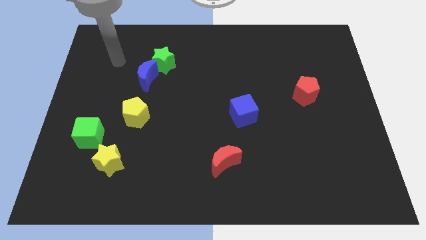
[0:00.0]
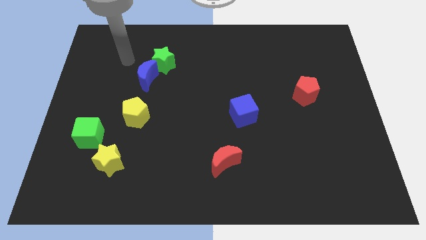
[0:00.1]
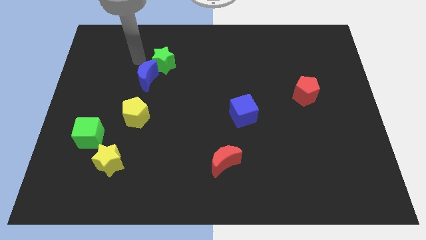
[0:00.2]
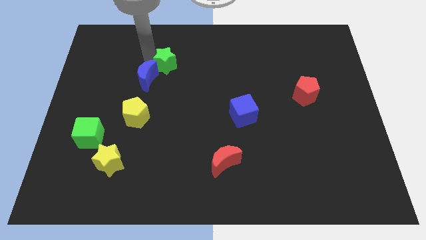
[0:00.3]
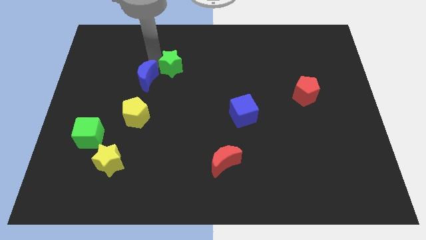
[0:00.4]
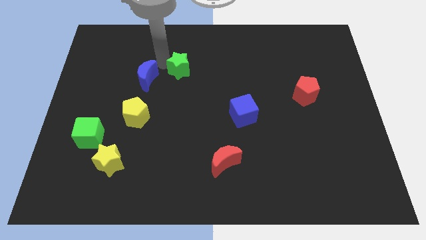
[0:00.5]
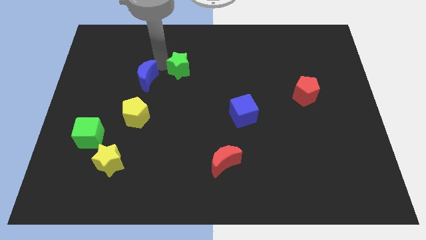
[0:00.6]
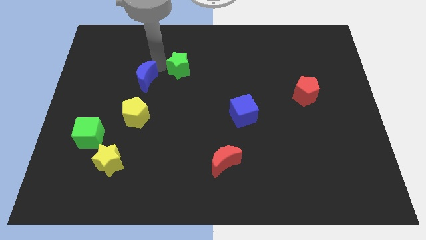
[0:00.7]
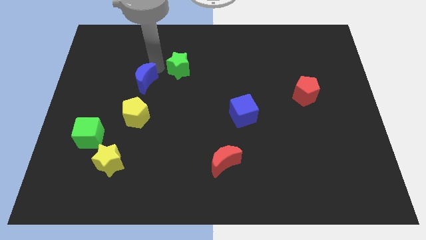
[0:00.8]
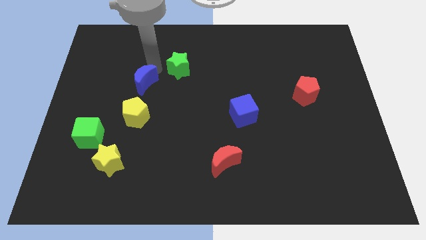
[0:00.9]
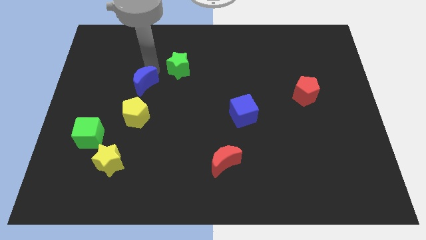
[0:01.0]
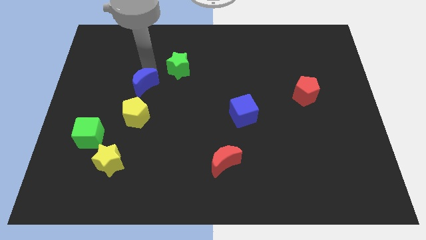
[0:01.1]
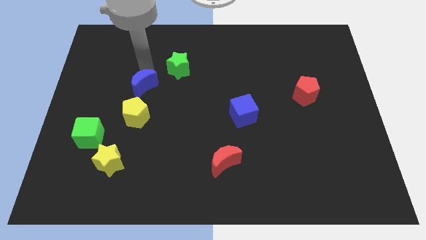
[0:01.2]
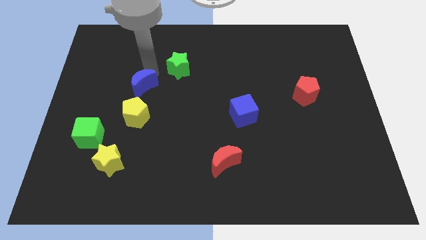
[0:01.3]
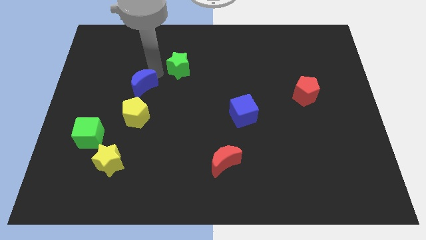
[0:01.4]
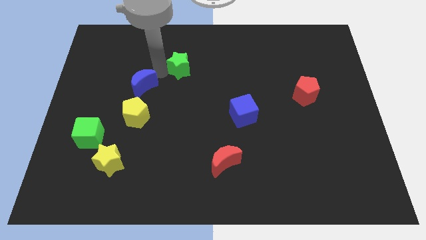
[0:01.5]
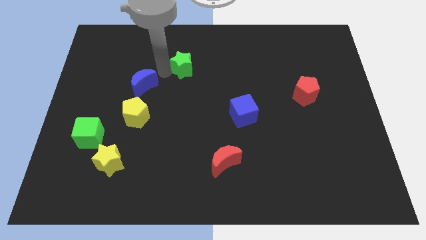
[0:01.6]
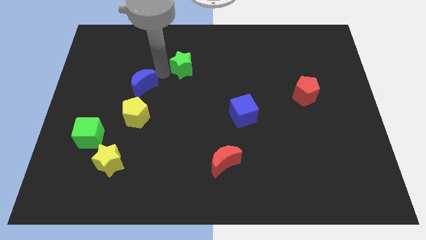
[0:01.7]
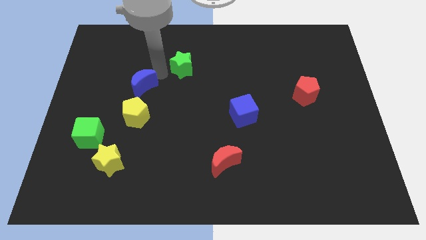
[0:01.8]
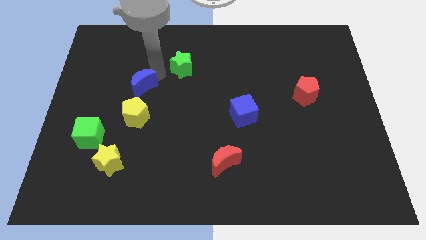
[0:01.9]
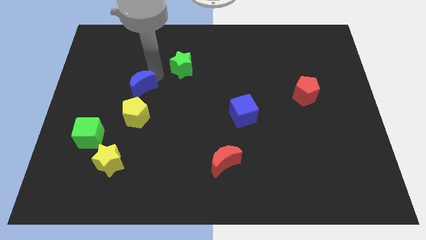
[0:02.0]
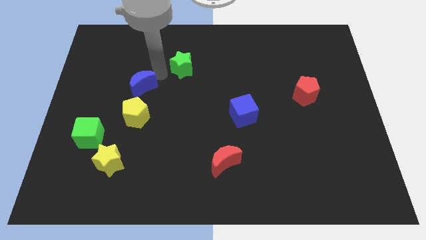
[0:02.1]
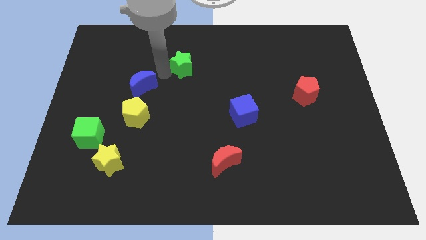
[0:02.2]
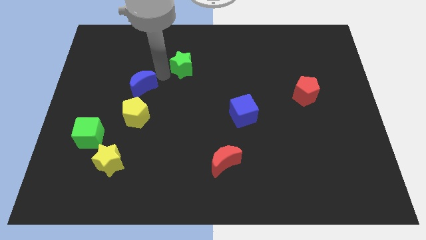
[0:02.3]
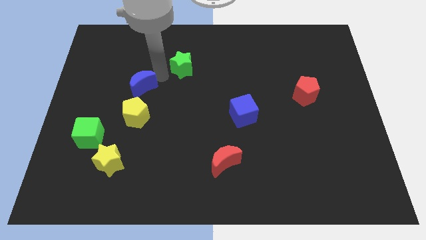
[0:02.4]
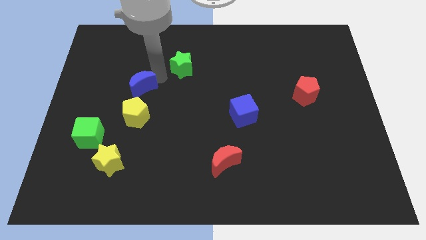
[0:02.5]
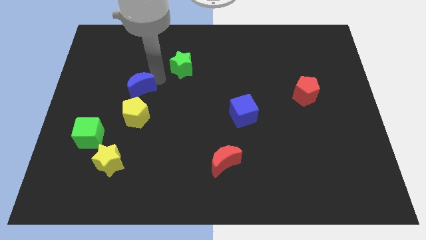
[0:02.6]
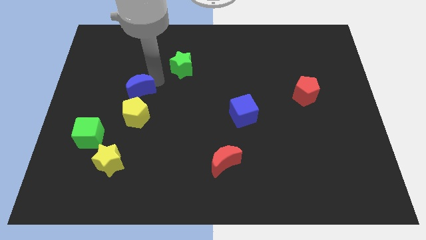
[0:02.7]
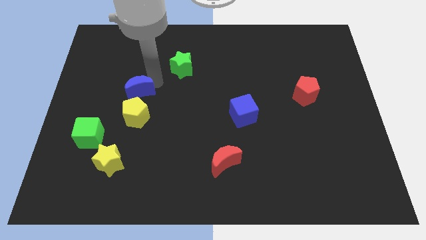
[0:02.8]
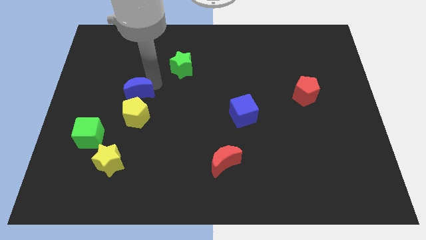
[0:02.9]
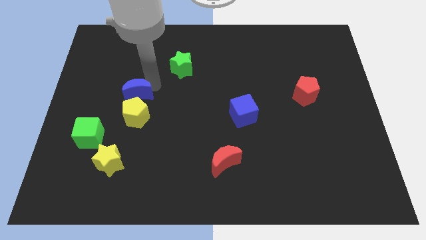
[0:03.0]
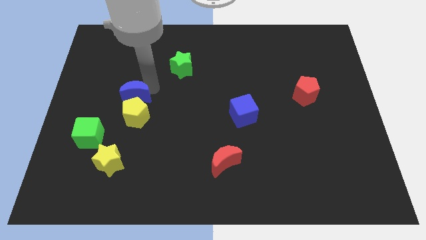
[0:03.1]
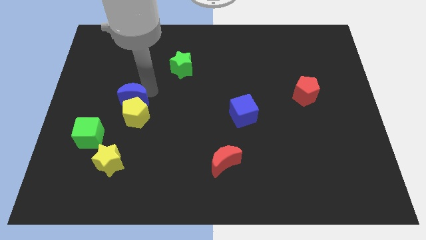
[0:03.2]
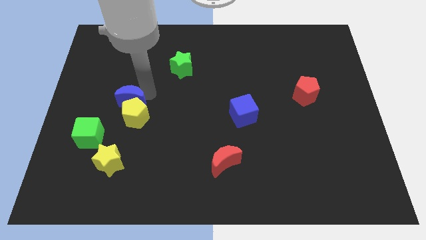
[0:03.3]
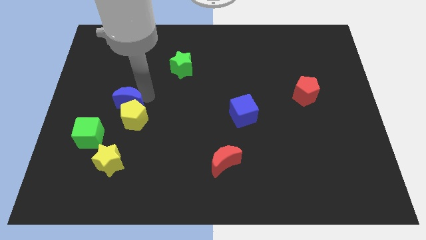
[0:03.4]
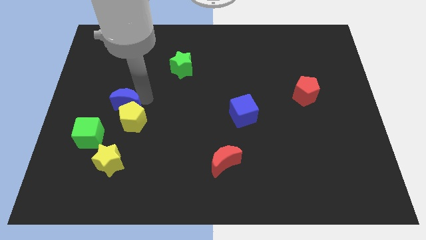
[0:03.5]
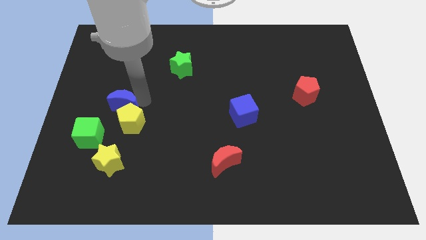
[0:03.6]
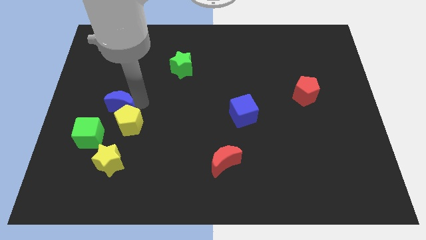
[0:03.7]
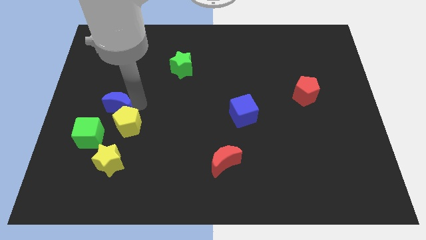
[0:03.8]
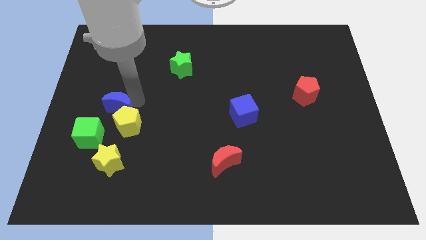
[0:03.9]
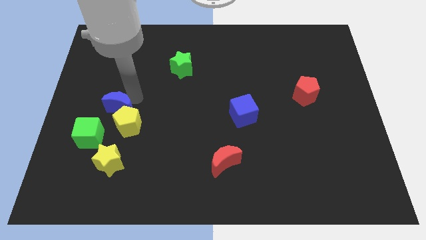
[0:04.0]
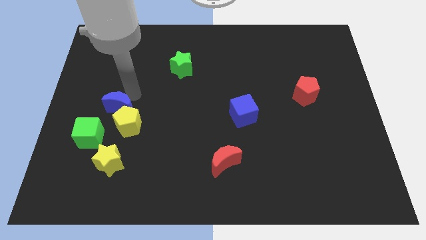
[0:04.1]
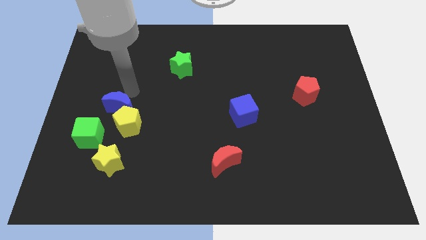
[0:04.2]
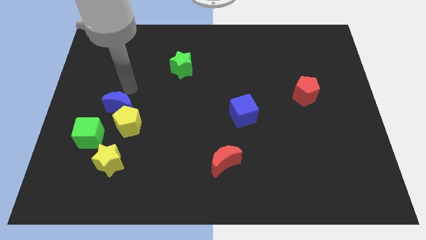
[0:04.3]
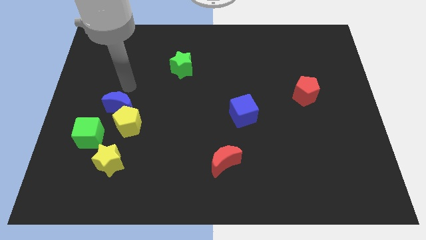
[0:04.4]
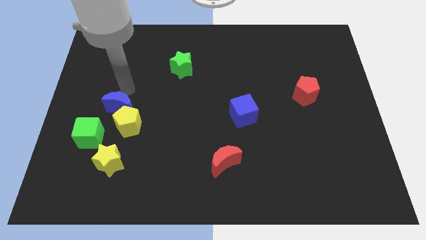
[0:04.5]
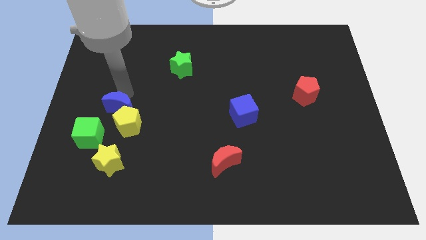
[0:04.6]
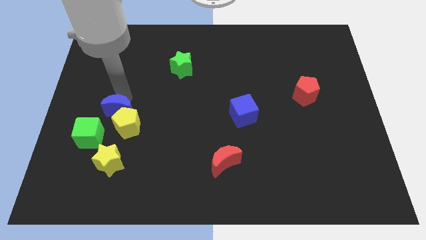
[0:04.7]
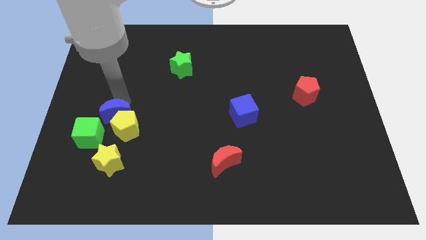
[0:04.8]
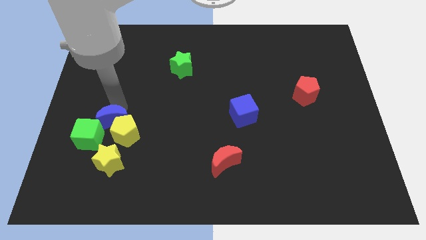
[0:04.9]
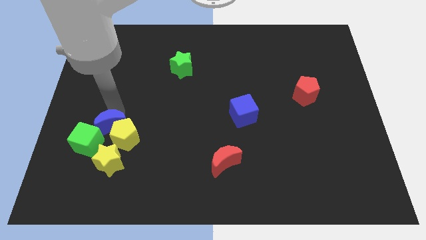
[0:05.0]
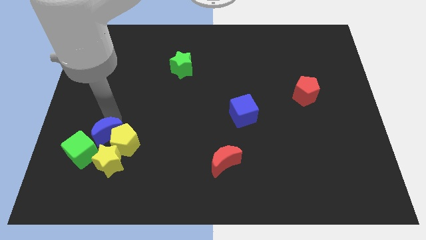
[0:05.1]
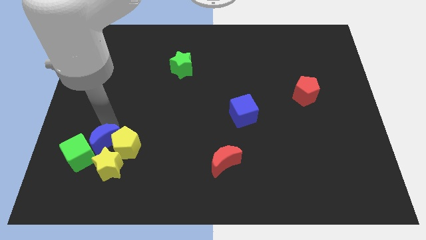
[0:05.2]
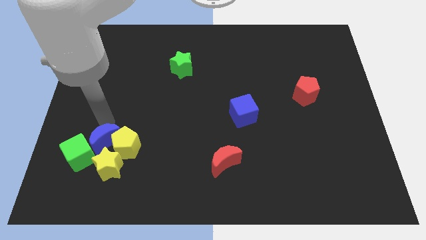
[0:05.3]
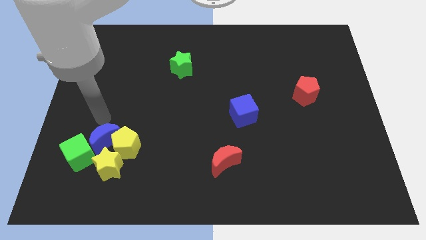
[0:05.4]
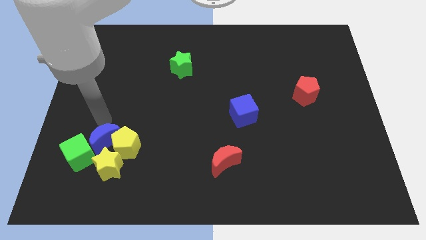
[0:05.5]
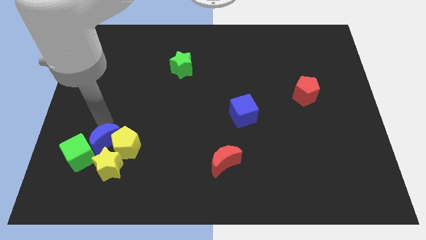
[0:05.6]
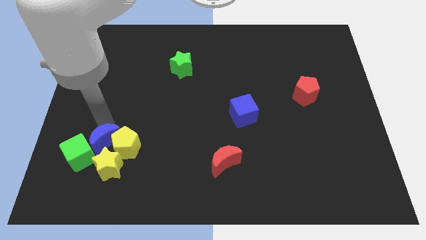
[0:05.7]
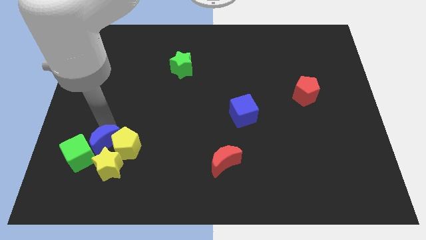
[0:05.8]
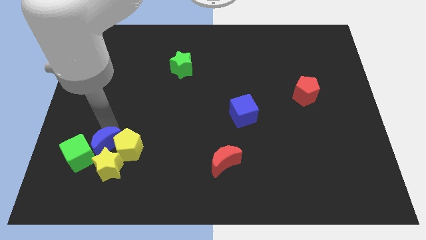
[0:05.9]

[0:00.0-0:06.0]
slide the blue moon close to the yellow star

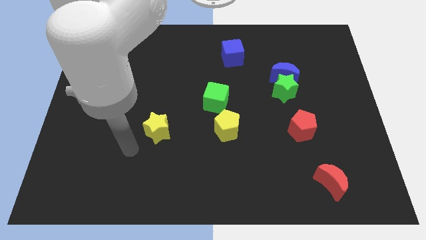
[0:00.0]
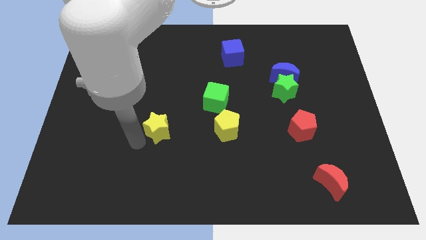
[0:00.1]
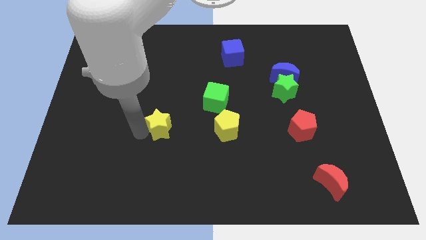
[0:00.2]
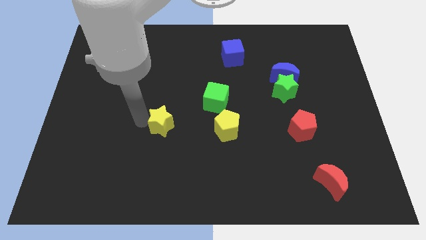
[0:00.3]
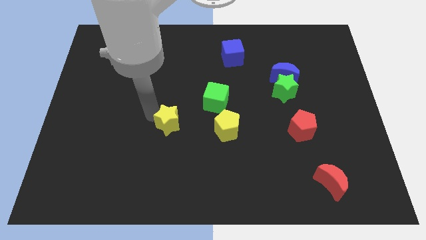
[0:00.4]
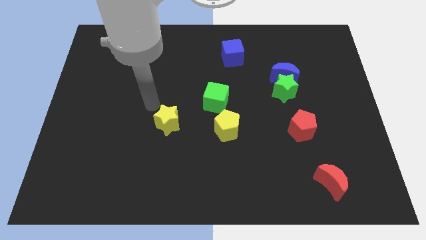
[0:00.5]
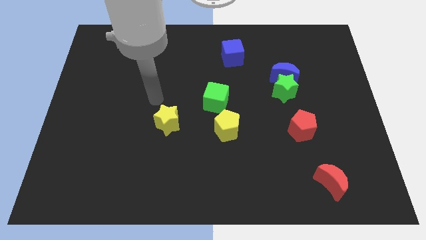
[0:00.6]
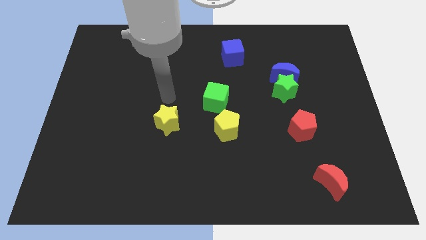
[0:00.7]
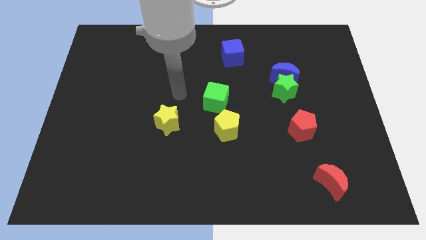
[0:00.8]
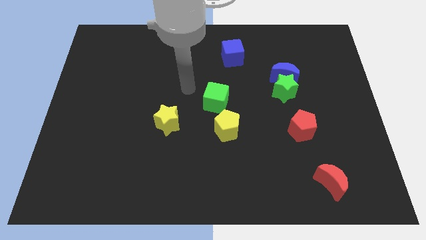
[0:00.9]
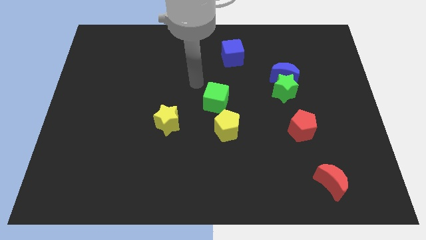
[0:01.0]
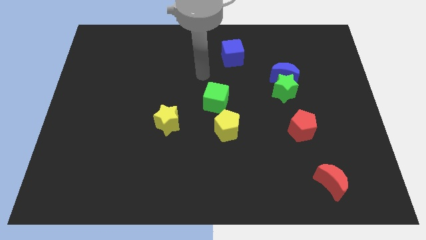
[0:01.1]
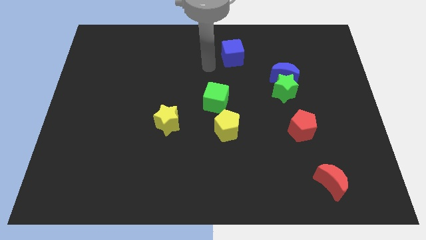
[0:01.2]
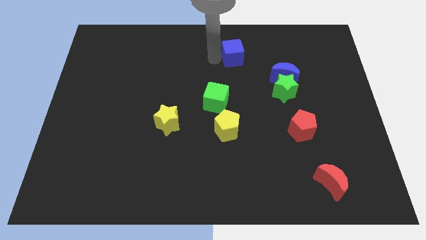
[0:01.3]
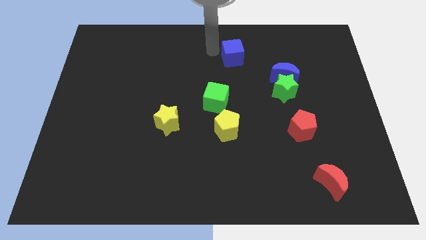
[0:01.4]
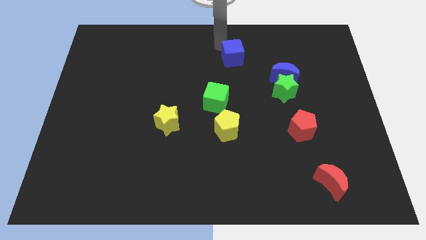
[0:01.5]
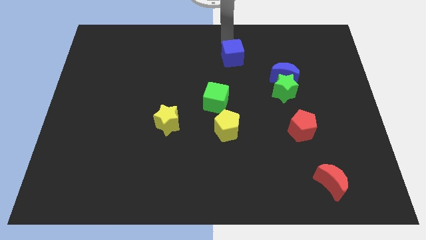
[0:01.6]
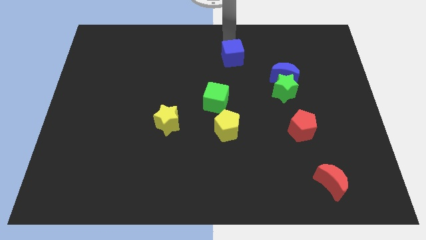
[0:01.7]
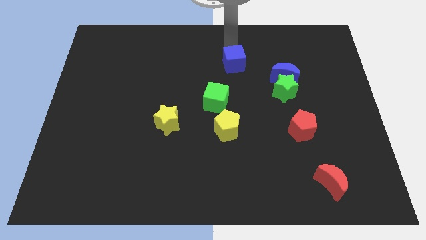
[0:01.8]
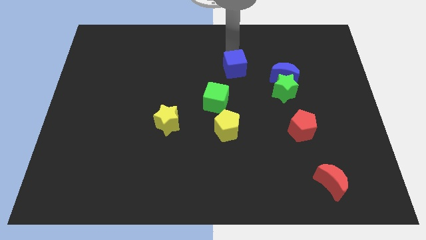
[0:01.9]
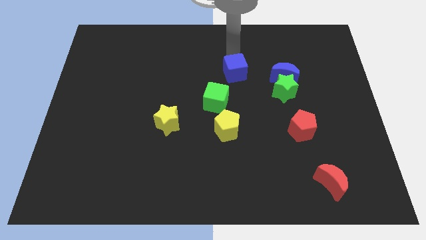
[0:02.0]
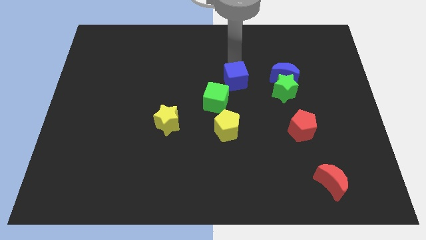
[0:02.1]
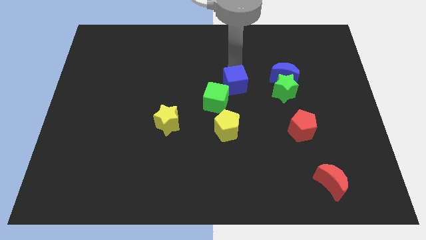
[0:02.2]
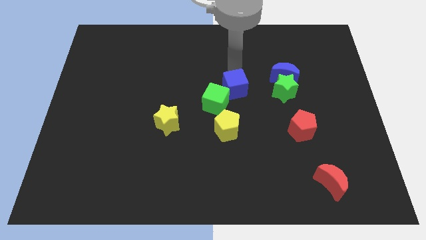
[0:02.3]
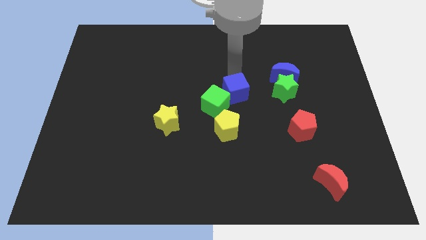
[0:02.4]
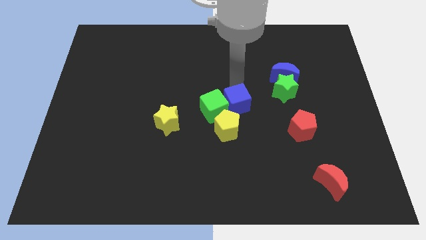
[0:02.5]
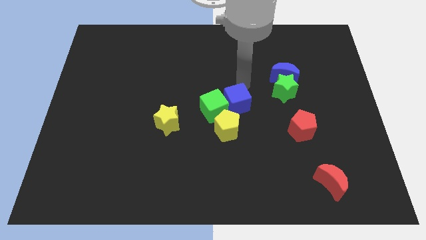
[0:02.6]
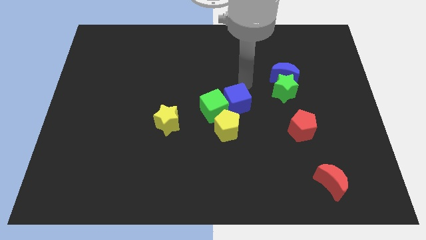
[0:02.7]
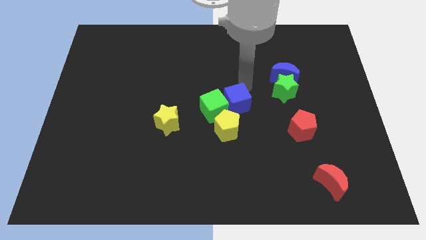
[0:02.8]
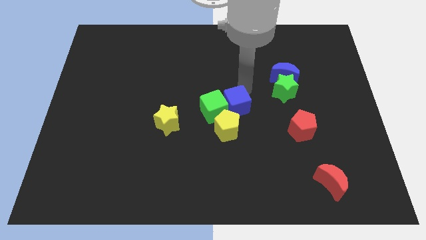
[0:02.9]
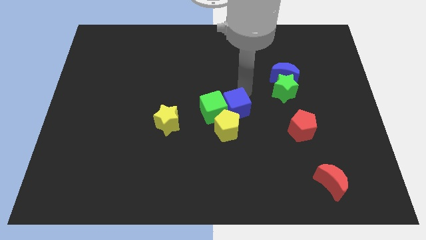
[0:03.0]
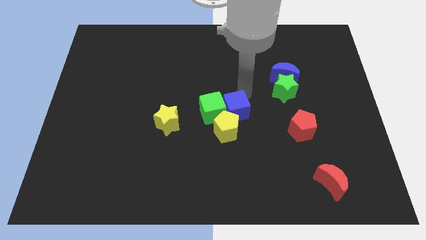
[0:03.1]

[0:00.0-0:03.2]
push the blue cube to the yellow pentagon
